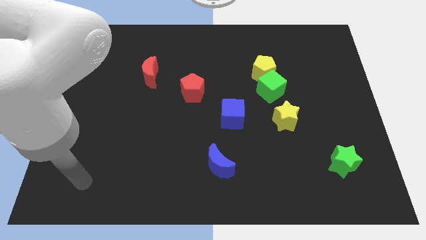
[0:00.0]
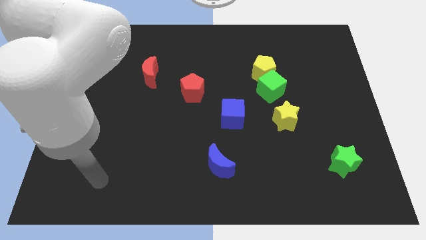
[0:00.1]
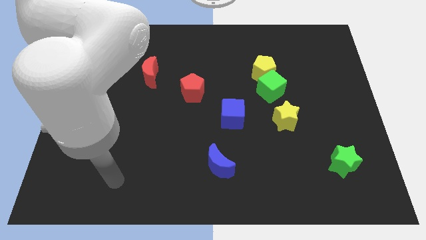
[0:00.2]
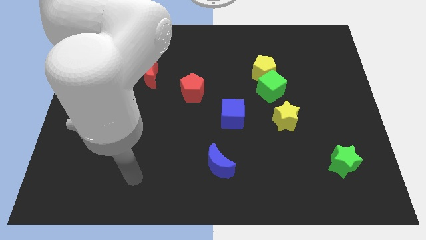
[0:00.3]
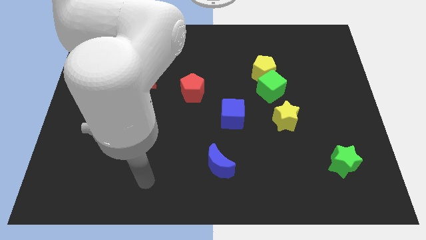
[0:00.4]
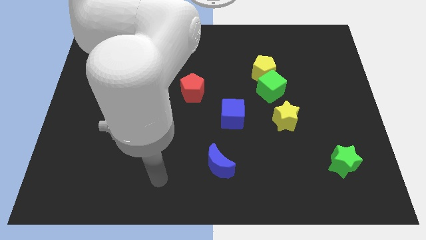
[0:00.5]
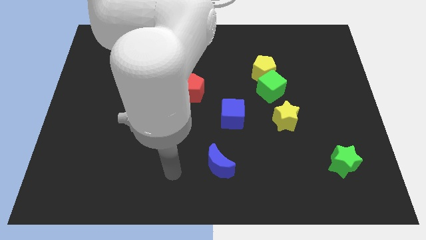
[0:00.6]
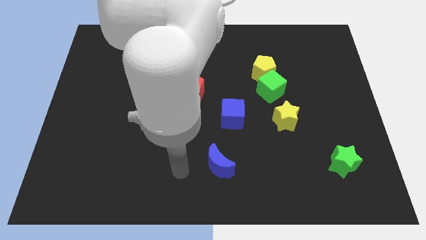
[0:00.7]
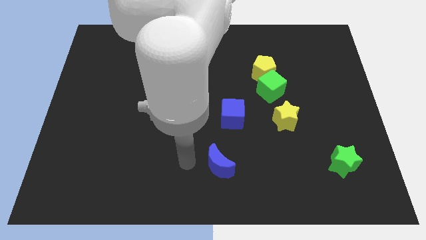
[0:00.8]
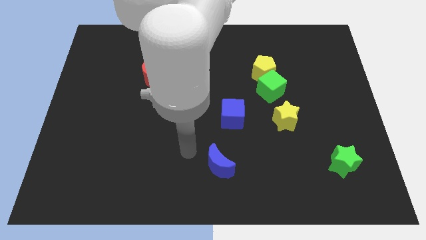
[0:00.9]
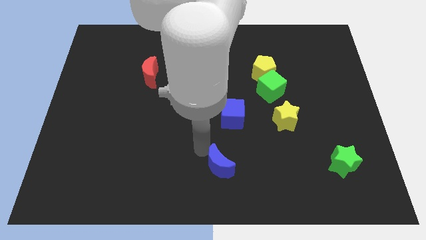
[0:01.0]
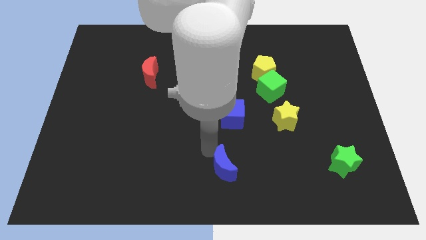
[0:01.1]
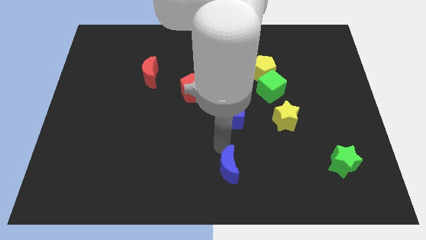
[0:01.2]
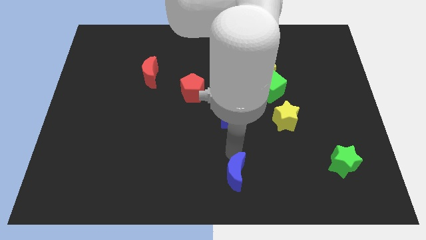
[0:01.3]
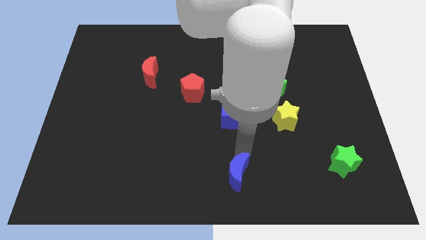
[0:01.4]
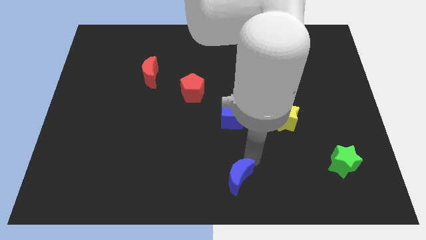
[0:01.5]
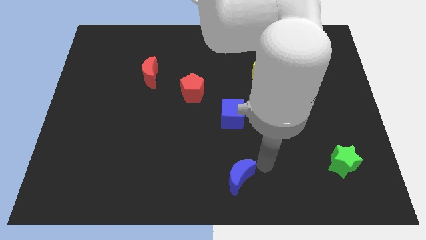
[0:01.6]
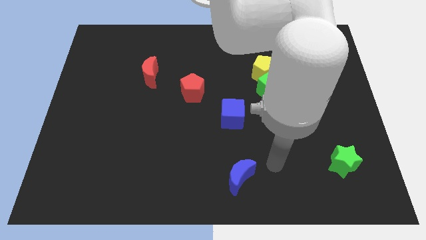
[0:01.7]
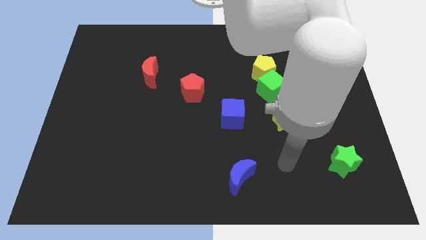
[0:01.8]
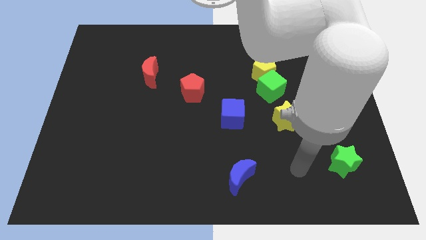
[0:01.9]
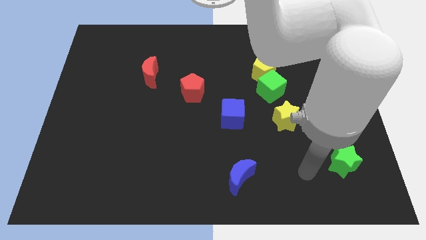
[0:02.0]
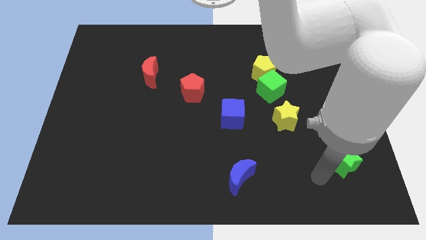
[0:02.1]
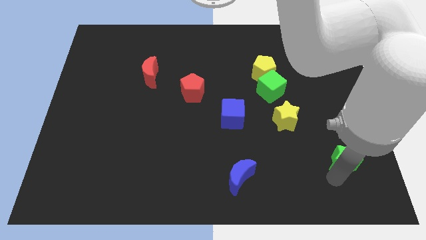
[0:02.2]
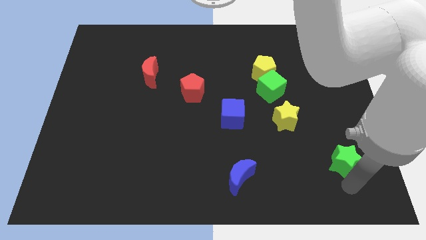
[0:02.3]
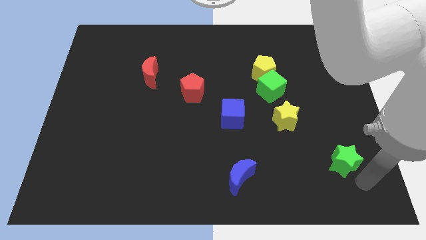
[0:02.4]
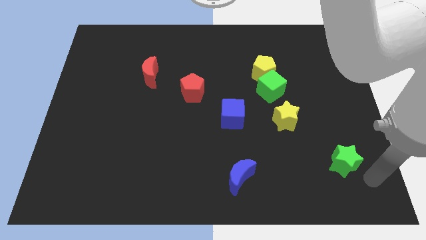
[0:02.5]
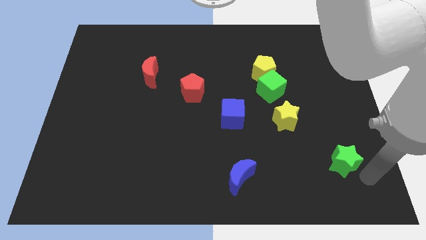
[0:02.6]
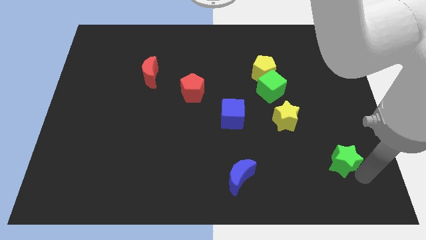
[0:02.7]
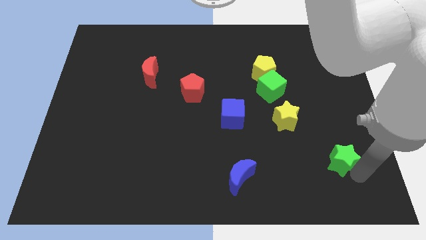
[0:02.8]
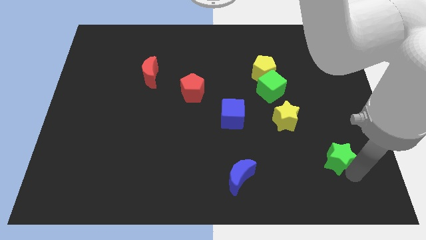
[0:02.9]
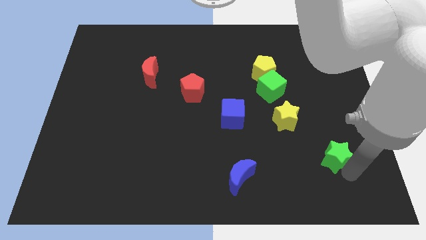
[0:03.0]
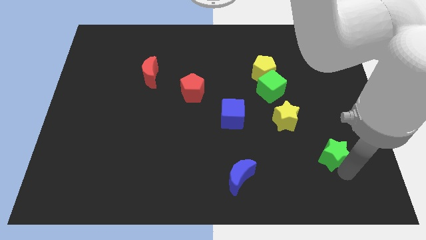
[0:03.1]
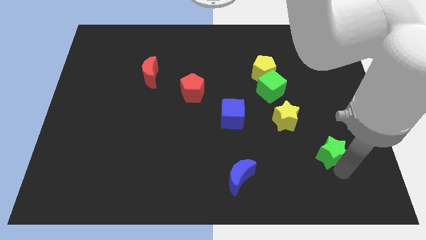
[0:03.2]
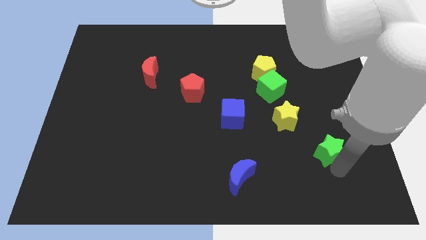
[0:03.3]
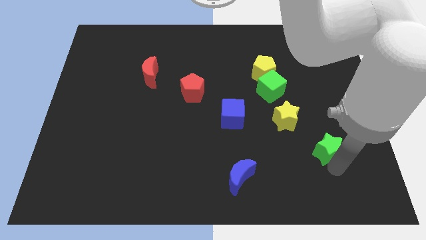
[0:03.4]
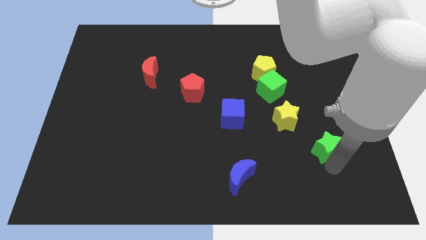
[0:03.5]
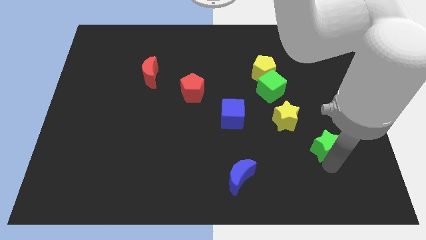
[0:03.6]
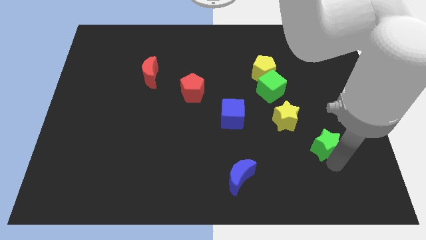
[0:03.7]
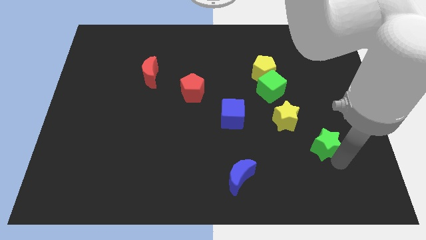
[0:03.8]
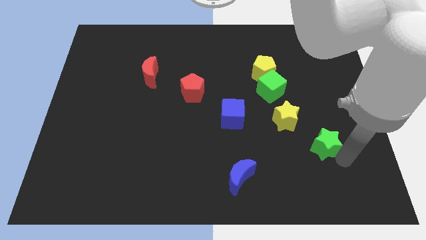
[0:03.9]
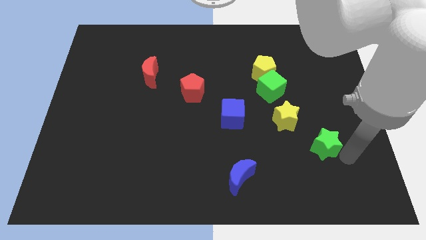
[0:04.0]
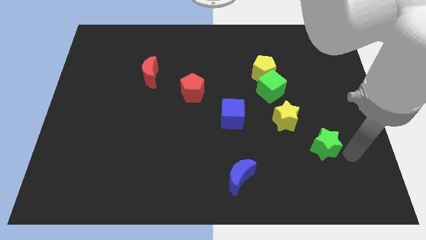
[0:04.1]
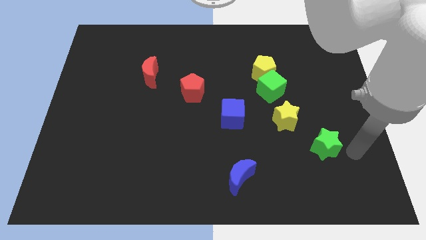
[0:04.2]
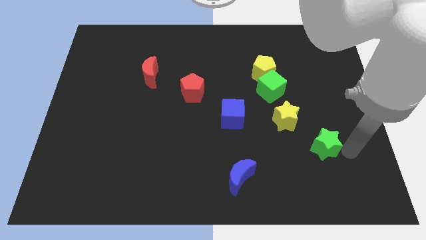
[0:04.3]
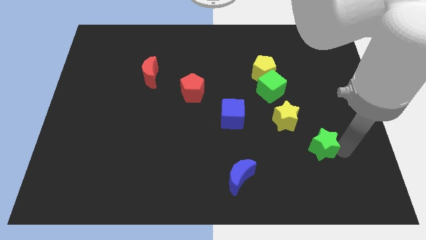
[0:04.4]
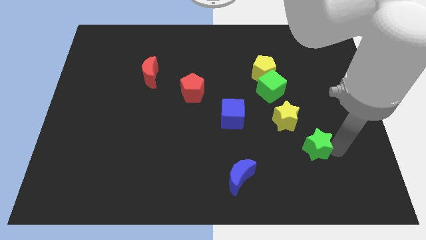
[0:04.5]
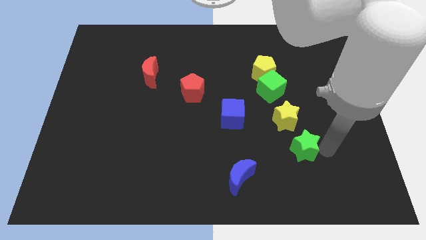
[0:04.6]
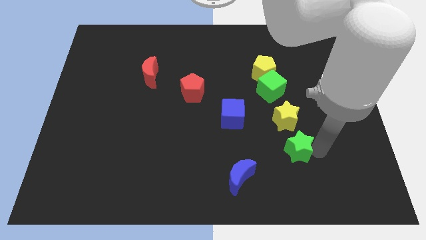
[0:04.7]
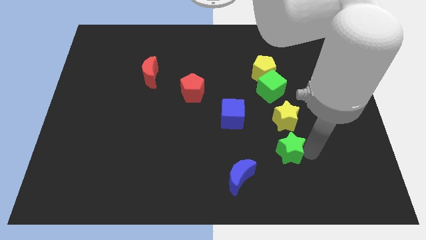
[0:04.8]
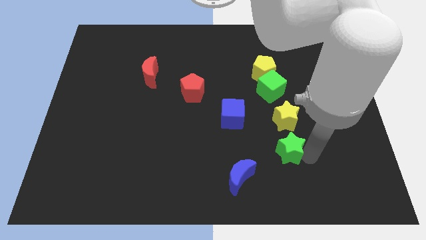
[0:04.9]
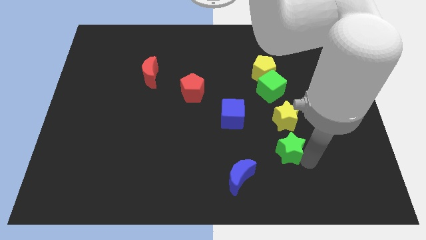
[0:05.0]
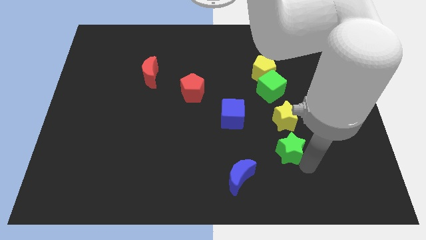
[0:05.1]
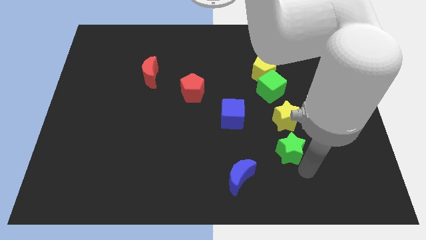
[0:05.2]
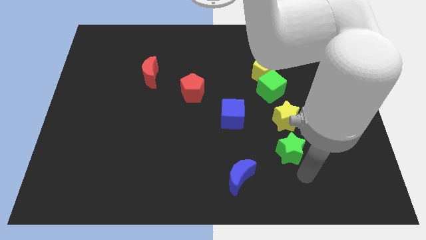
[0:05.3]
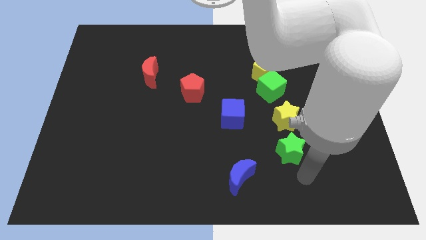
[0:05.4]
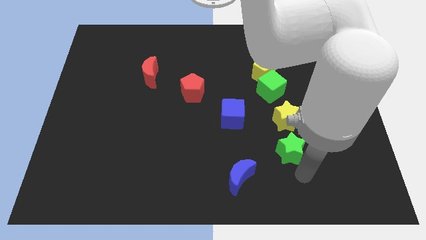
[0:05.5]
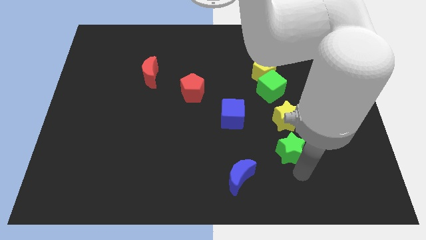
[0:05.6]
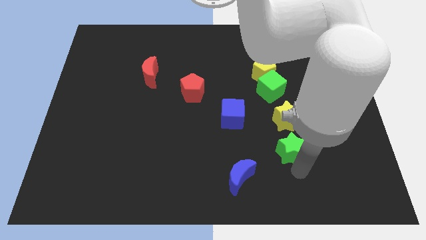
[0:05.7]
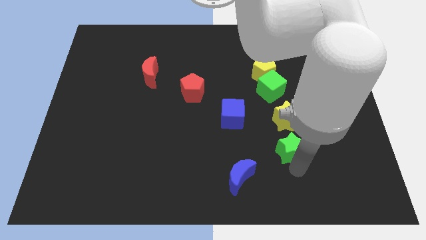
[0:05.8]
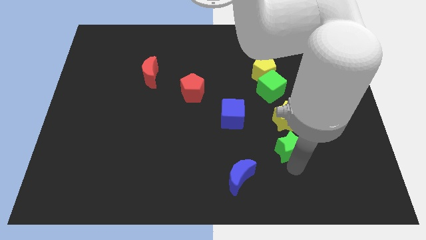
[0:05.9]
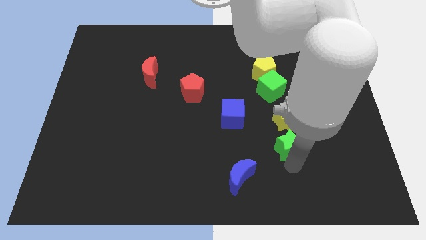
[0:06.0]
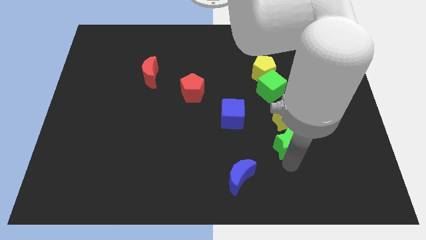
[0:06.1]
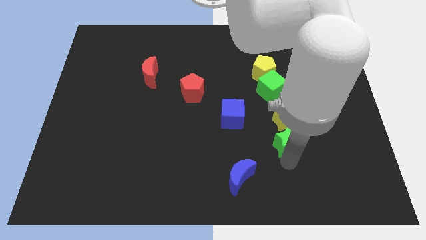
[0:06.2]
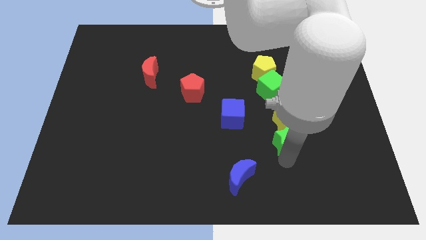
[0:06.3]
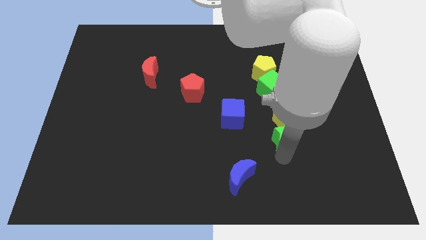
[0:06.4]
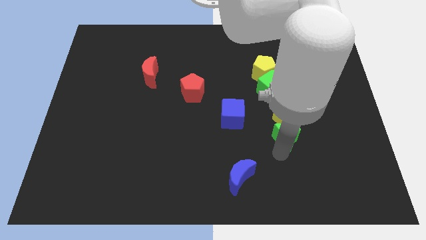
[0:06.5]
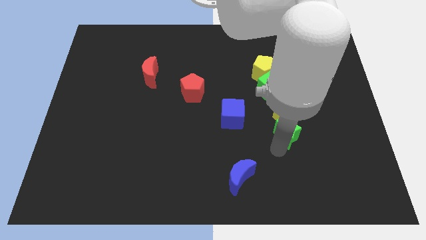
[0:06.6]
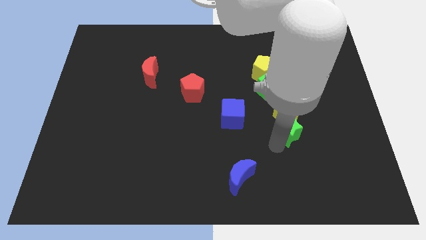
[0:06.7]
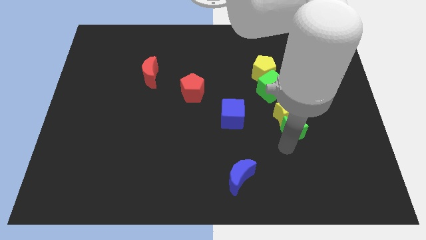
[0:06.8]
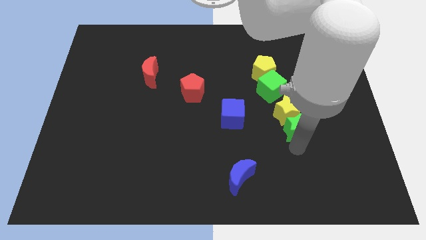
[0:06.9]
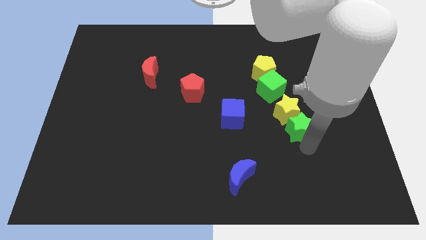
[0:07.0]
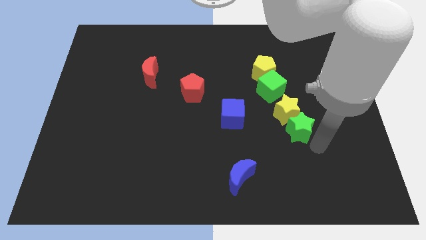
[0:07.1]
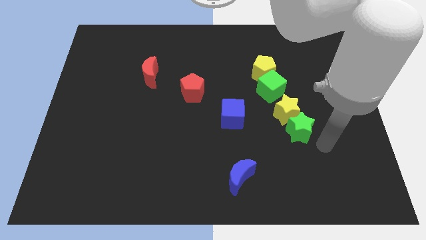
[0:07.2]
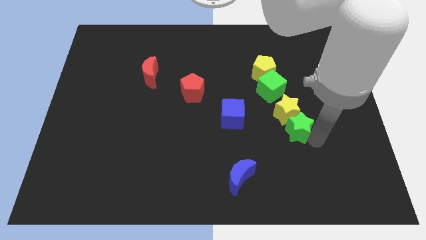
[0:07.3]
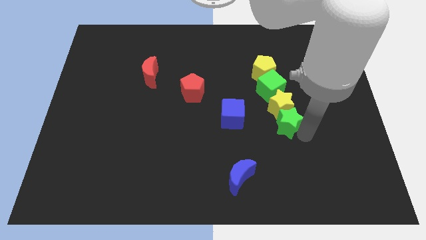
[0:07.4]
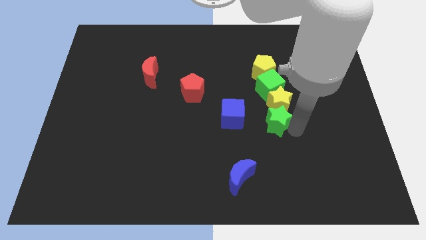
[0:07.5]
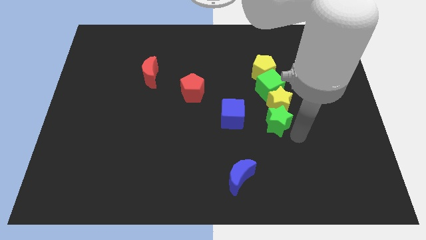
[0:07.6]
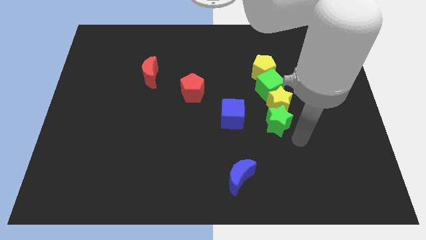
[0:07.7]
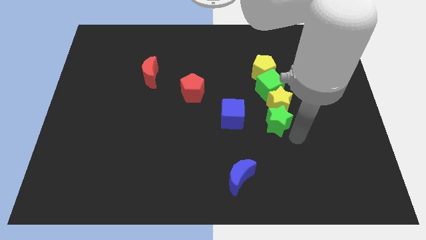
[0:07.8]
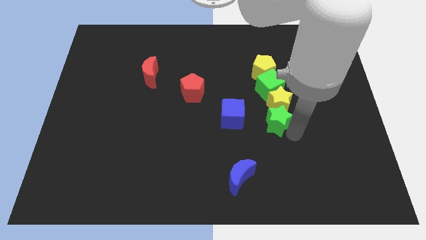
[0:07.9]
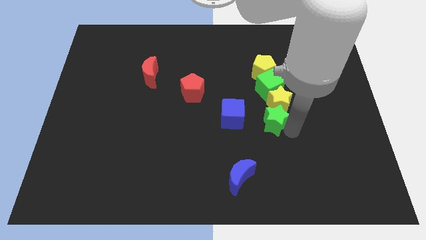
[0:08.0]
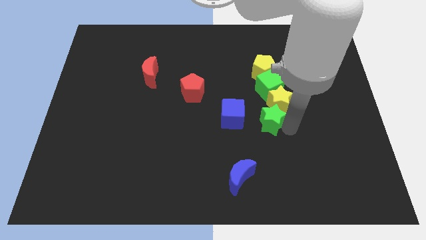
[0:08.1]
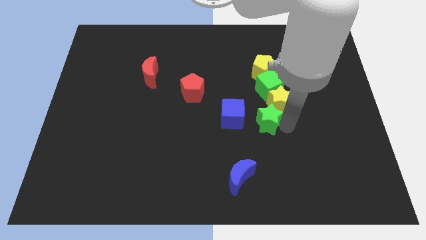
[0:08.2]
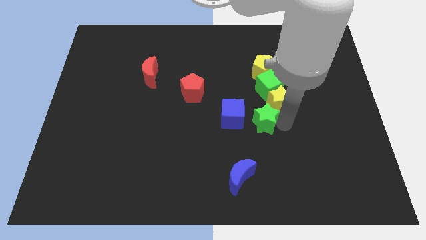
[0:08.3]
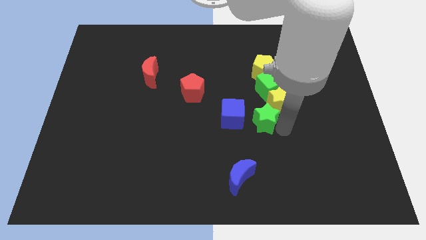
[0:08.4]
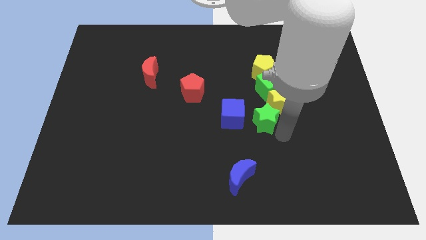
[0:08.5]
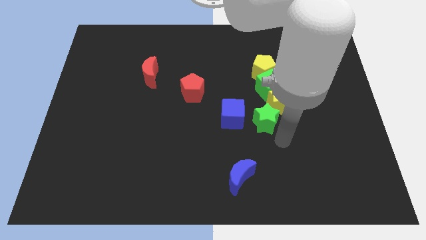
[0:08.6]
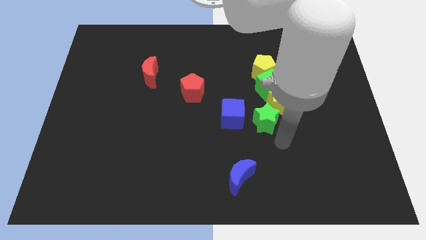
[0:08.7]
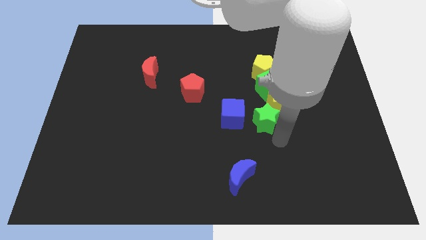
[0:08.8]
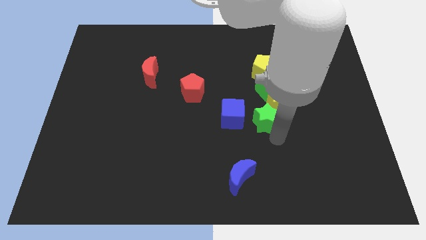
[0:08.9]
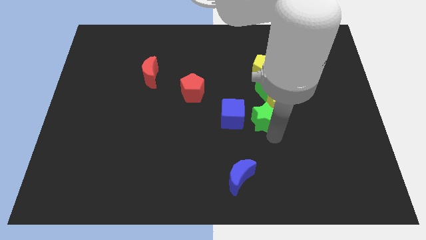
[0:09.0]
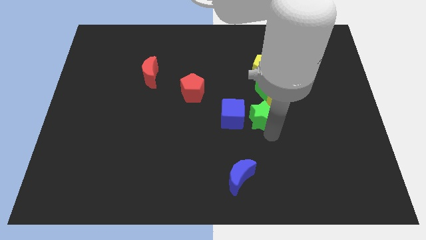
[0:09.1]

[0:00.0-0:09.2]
move the green star to the bottom left side of the green cube
